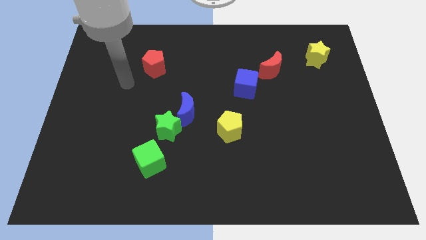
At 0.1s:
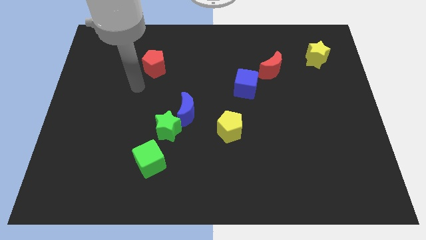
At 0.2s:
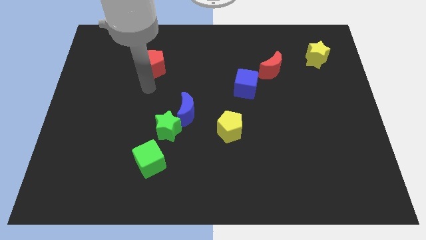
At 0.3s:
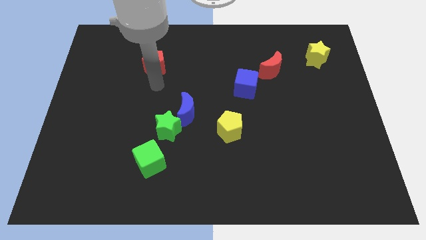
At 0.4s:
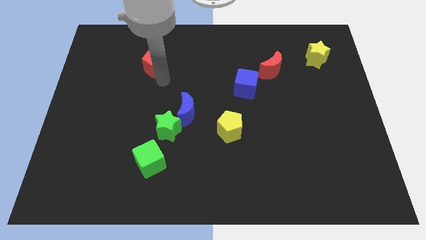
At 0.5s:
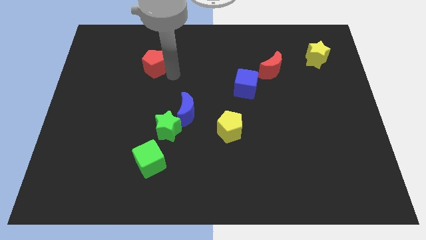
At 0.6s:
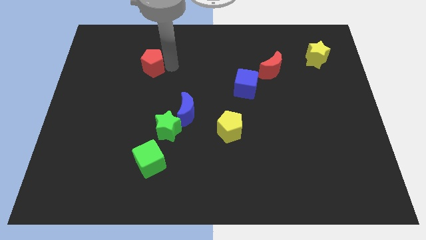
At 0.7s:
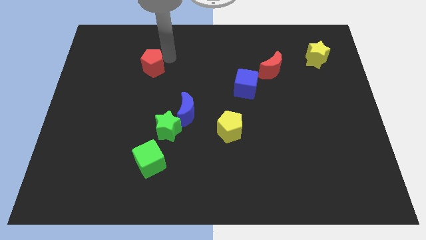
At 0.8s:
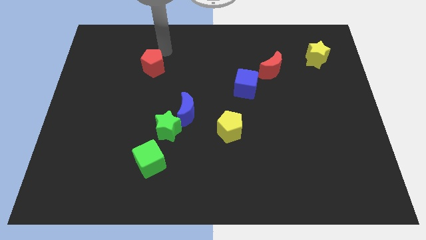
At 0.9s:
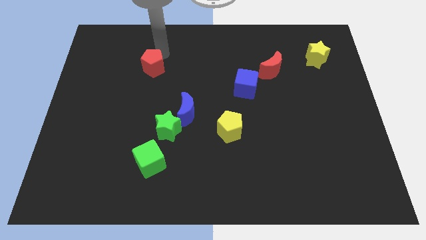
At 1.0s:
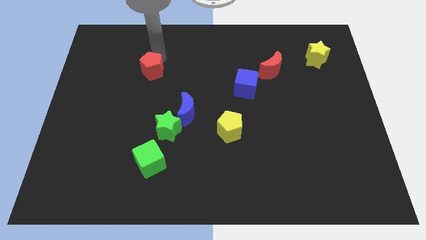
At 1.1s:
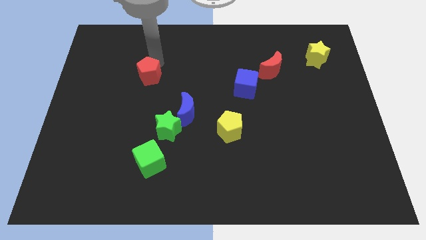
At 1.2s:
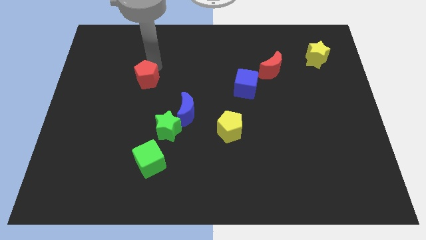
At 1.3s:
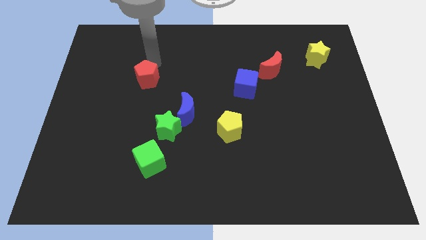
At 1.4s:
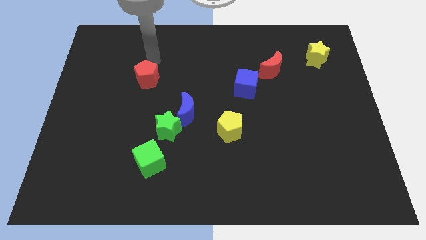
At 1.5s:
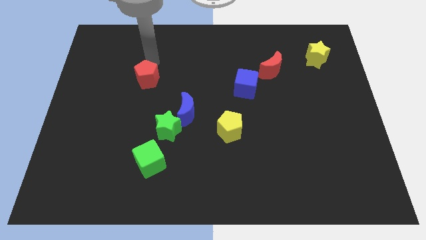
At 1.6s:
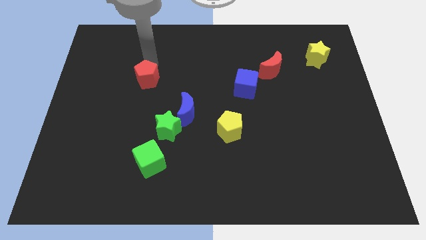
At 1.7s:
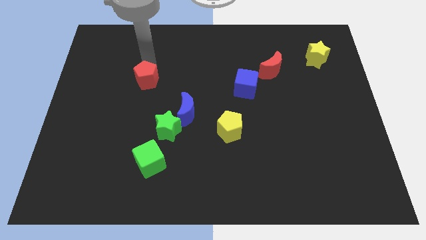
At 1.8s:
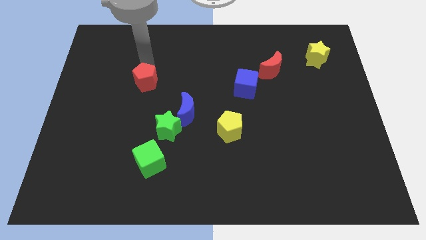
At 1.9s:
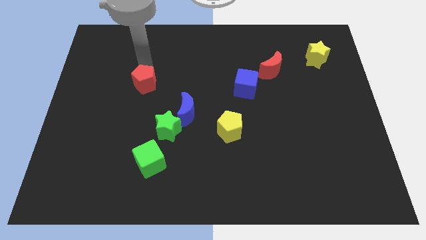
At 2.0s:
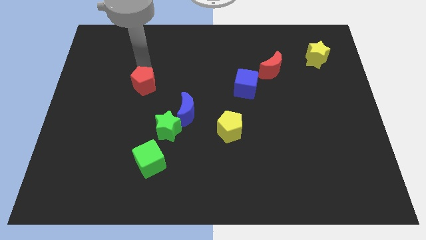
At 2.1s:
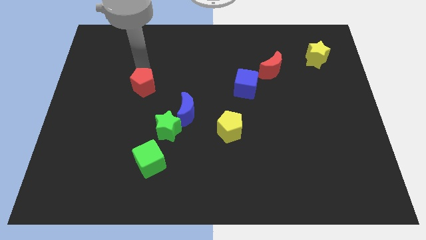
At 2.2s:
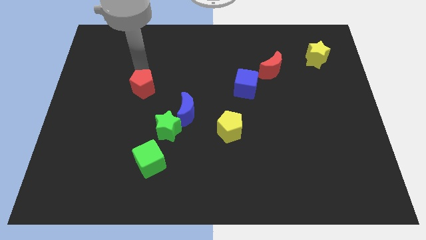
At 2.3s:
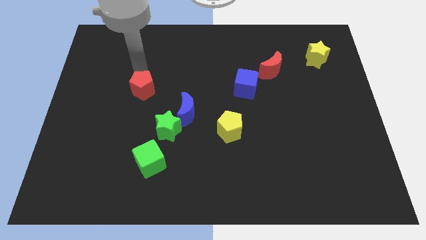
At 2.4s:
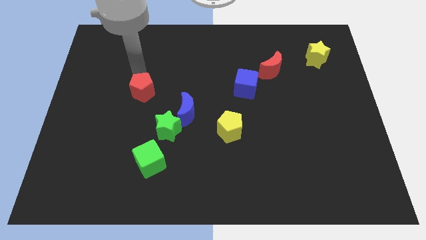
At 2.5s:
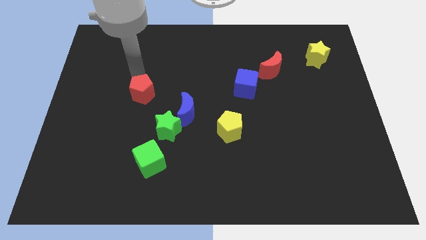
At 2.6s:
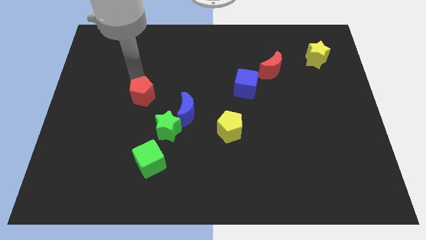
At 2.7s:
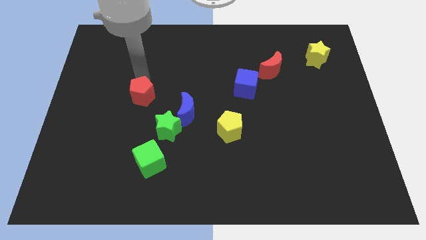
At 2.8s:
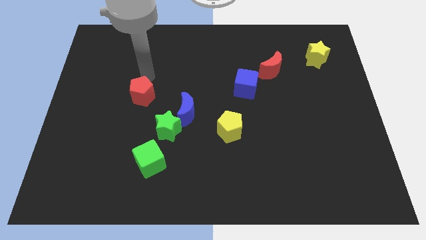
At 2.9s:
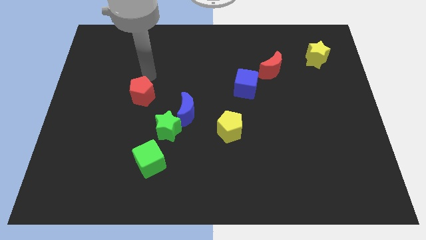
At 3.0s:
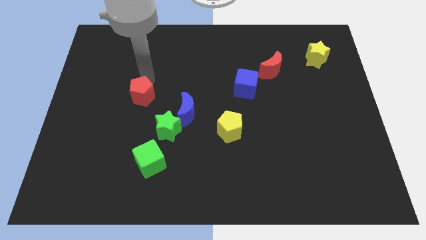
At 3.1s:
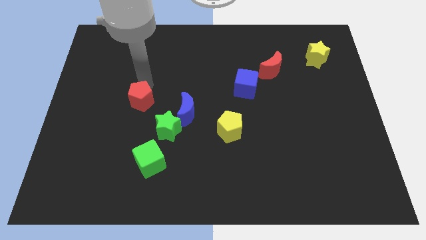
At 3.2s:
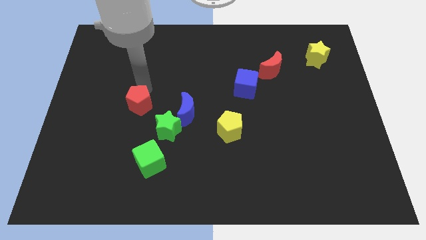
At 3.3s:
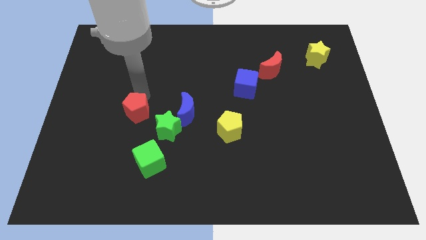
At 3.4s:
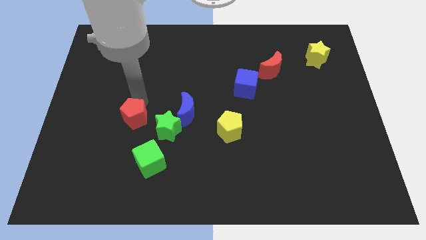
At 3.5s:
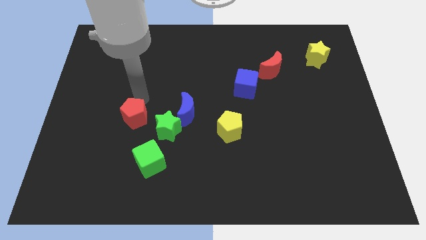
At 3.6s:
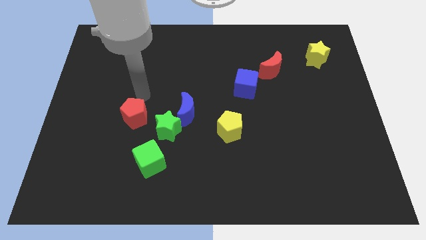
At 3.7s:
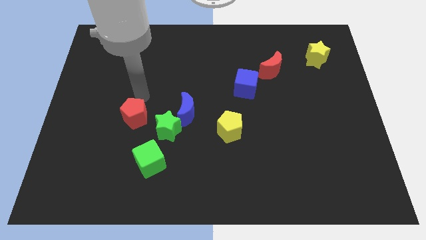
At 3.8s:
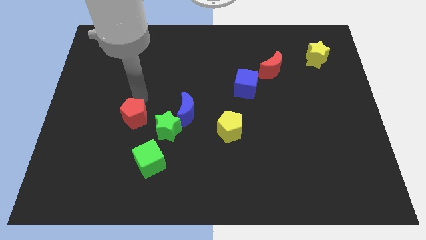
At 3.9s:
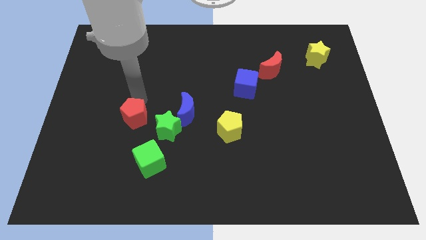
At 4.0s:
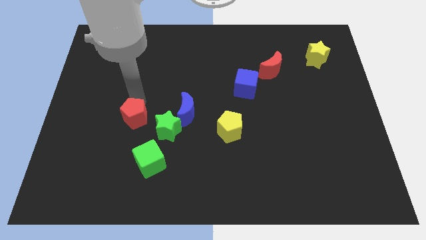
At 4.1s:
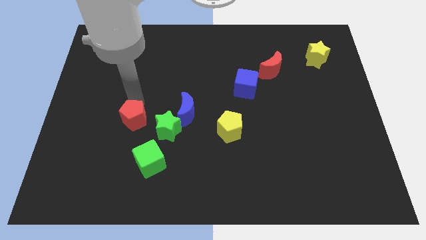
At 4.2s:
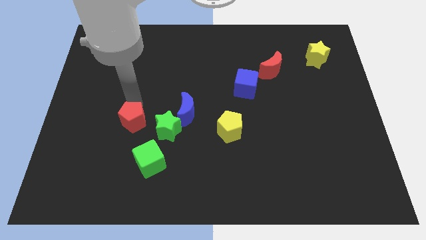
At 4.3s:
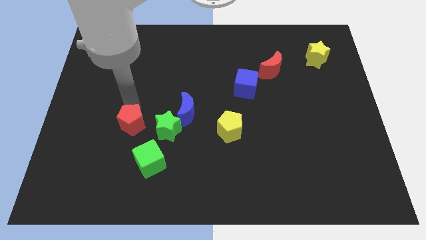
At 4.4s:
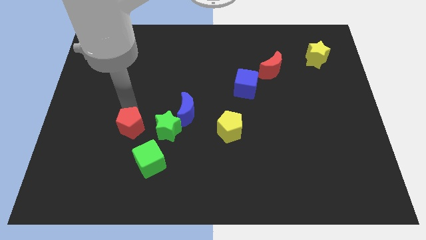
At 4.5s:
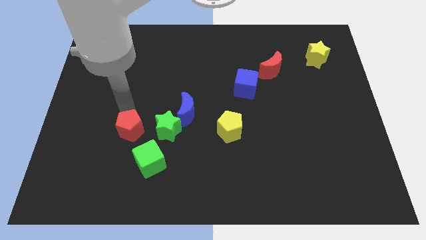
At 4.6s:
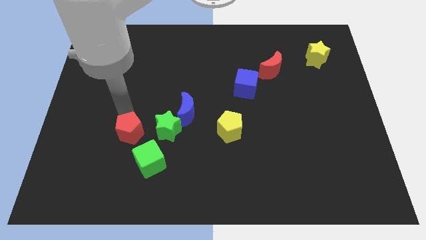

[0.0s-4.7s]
move the red pentagon down

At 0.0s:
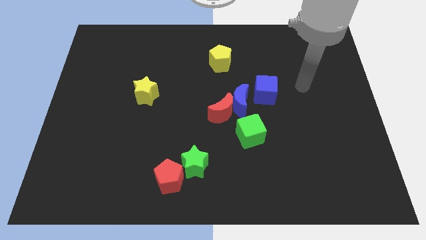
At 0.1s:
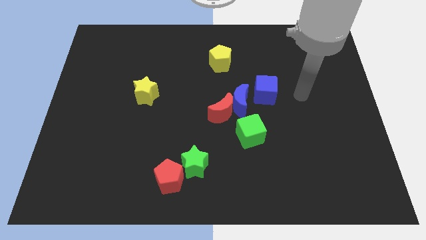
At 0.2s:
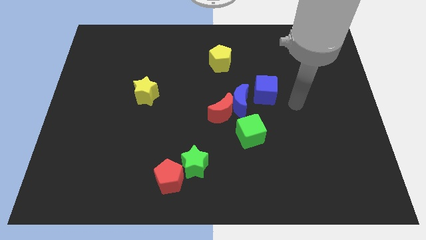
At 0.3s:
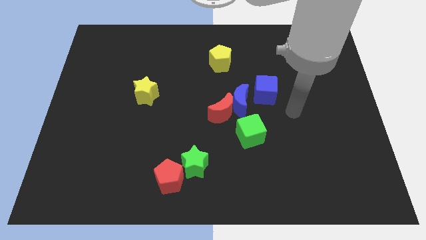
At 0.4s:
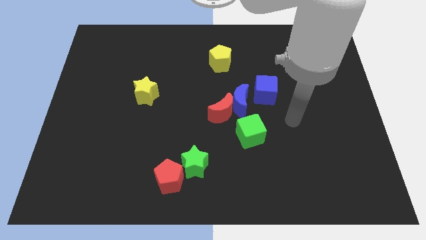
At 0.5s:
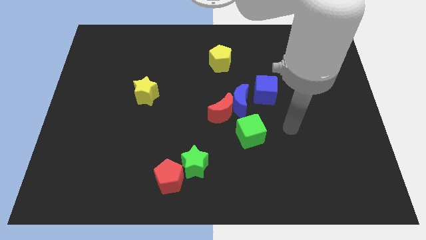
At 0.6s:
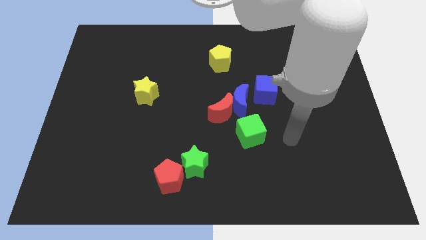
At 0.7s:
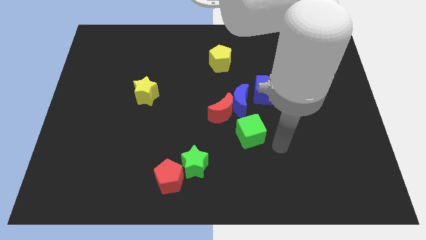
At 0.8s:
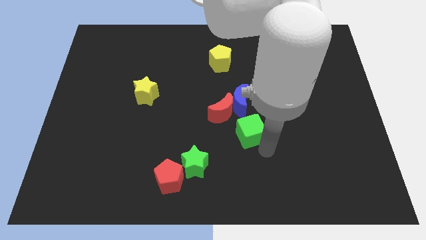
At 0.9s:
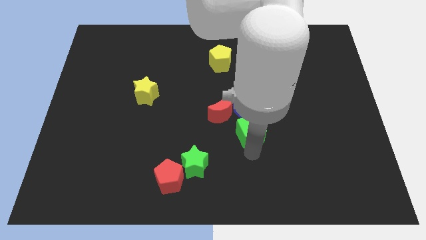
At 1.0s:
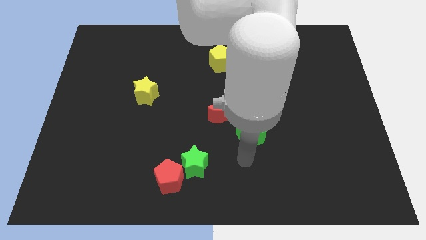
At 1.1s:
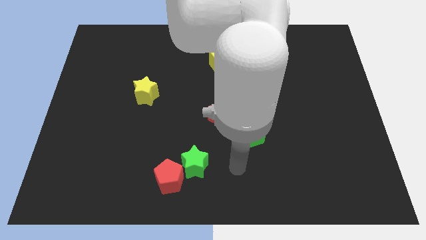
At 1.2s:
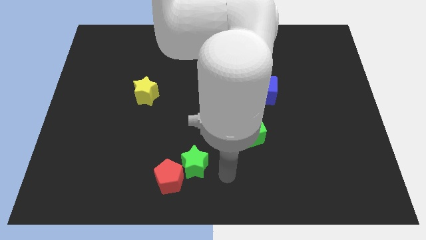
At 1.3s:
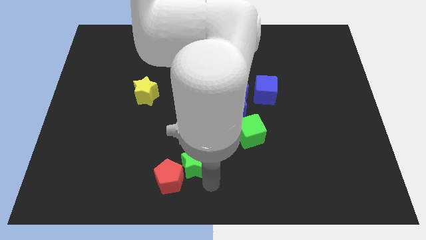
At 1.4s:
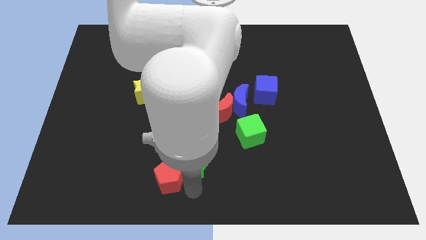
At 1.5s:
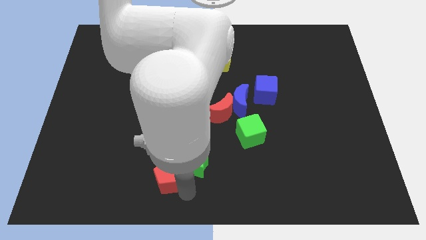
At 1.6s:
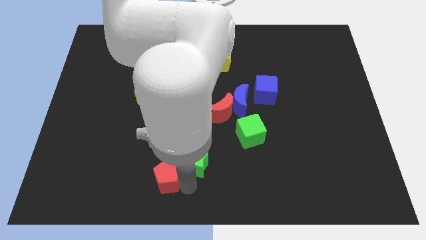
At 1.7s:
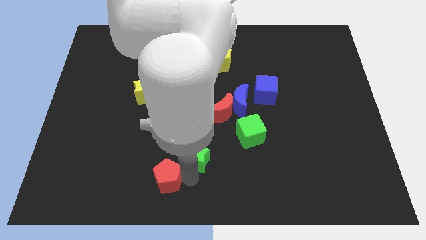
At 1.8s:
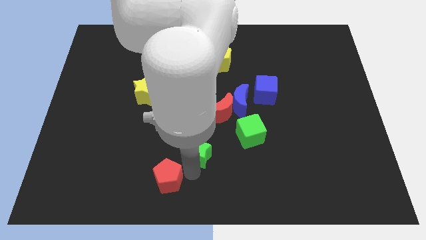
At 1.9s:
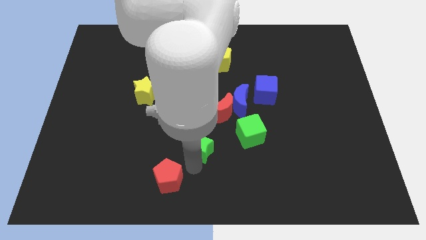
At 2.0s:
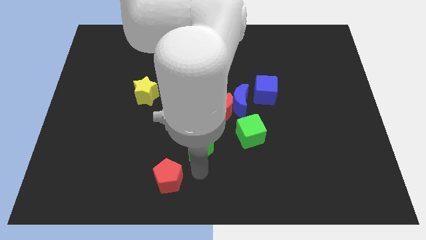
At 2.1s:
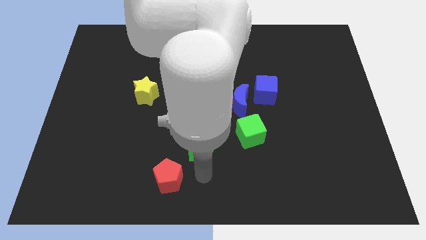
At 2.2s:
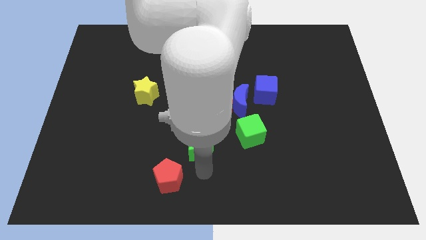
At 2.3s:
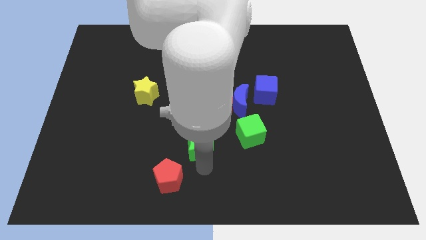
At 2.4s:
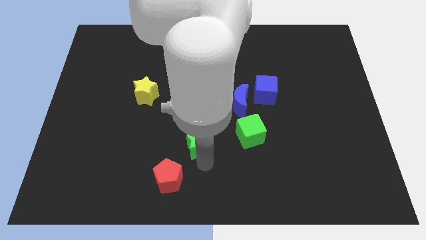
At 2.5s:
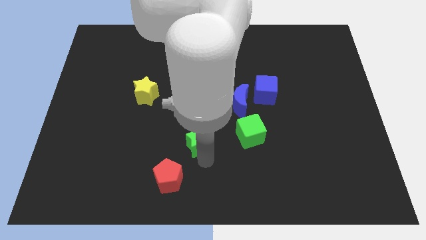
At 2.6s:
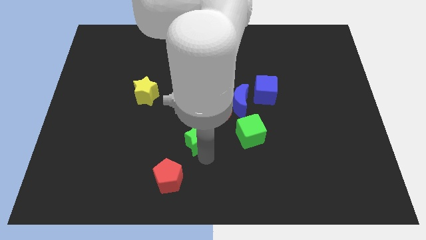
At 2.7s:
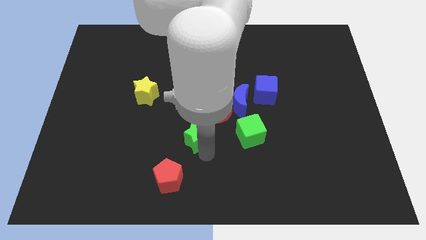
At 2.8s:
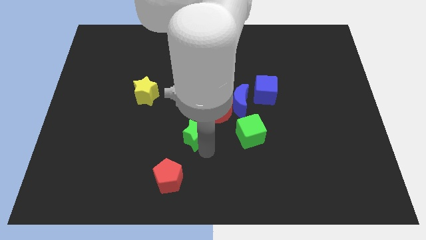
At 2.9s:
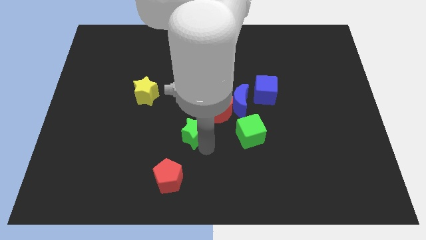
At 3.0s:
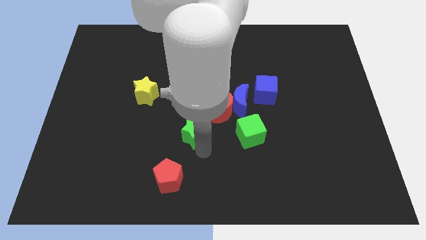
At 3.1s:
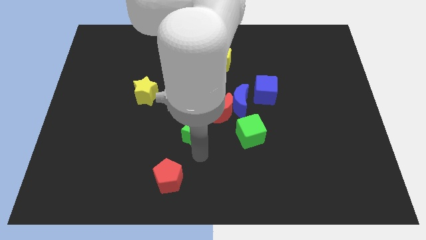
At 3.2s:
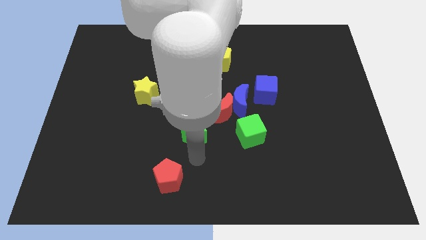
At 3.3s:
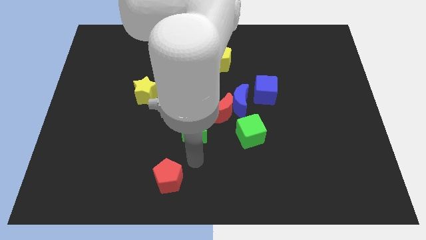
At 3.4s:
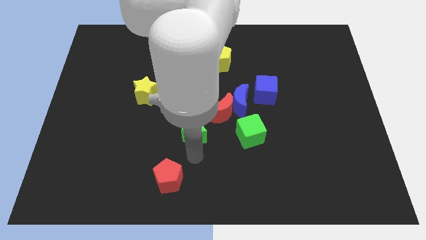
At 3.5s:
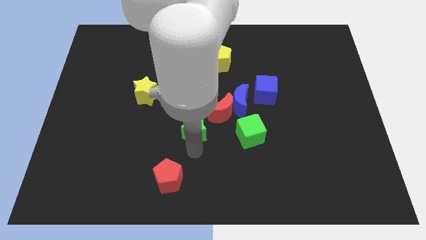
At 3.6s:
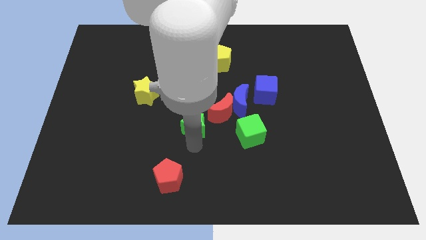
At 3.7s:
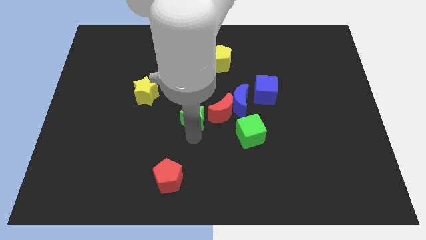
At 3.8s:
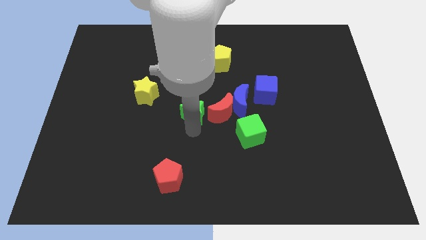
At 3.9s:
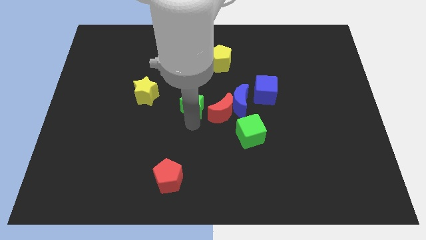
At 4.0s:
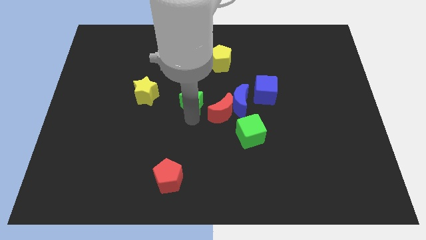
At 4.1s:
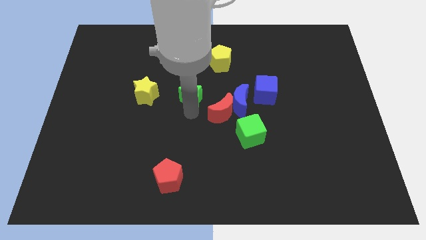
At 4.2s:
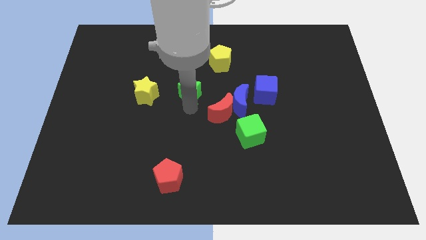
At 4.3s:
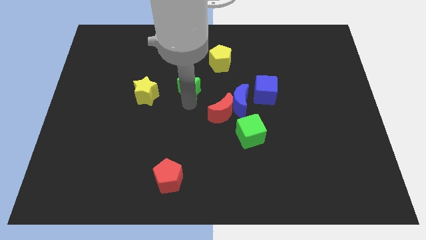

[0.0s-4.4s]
push the green star up
